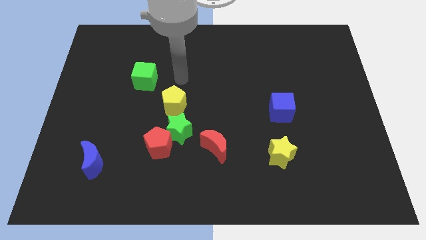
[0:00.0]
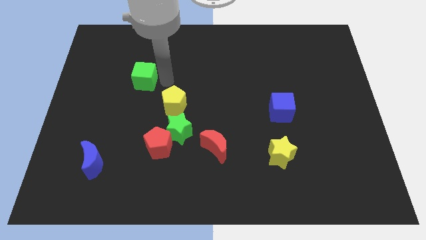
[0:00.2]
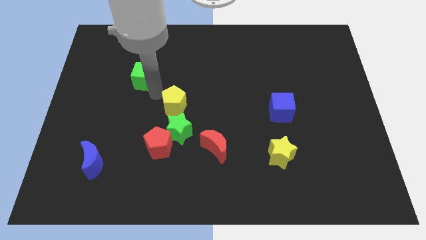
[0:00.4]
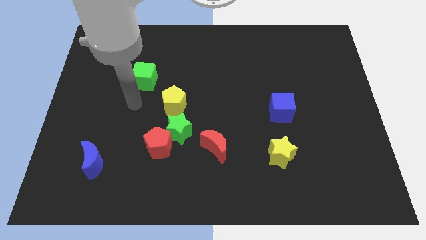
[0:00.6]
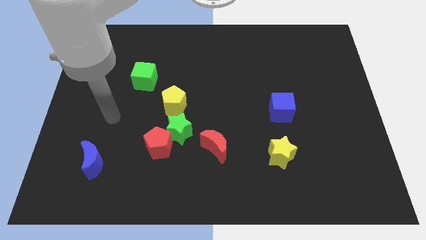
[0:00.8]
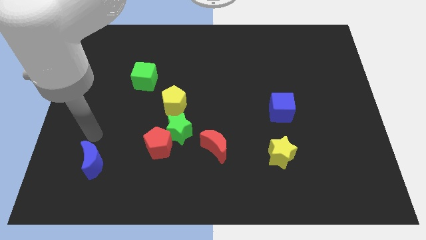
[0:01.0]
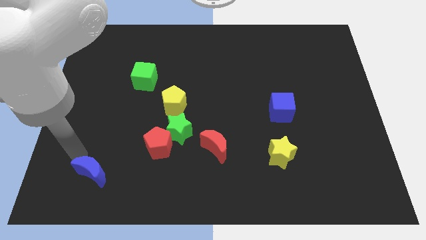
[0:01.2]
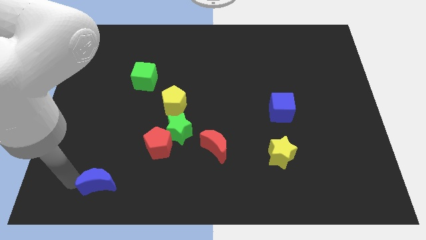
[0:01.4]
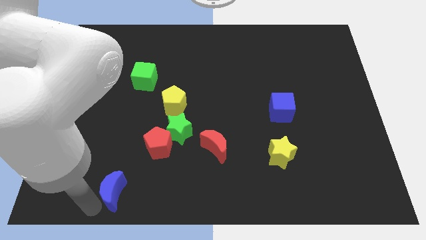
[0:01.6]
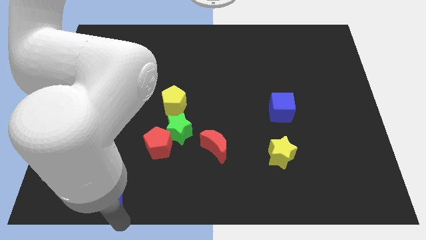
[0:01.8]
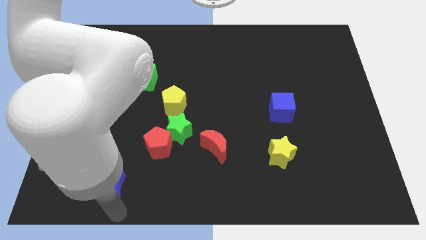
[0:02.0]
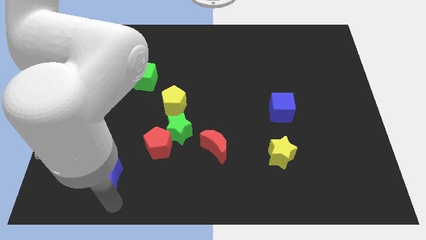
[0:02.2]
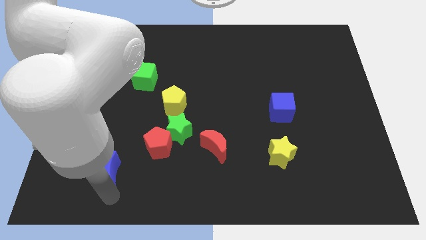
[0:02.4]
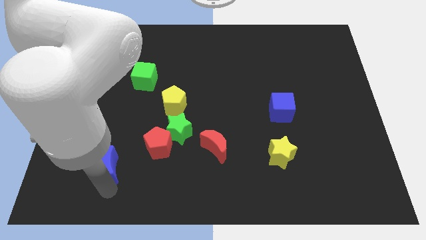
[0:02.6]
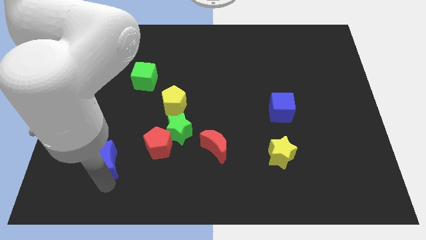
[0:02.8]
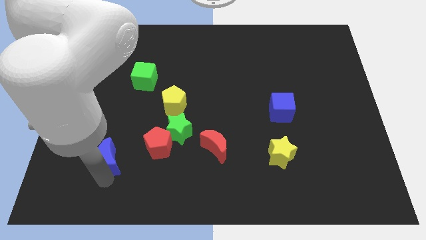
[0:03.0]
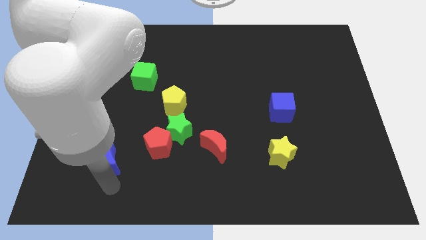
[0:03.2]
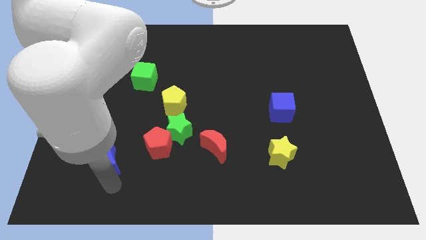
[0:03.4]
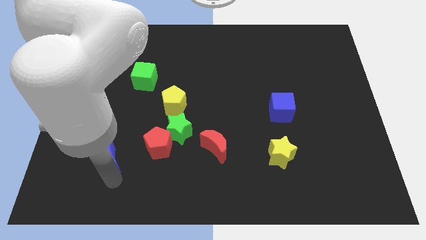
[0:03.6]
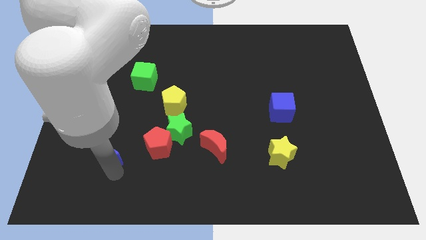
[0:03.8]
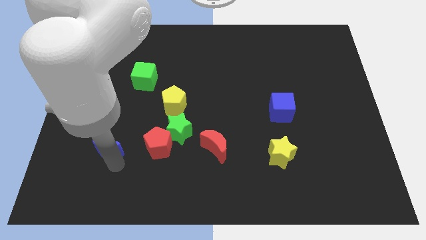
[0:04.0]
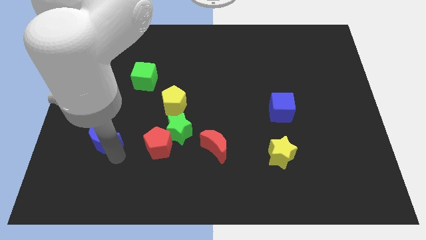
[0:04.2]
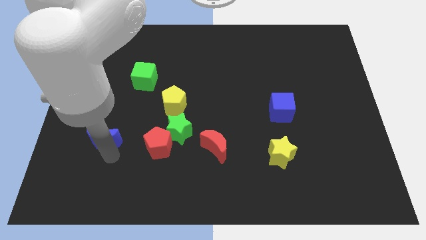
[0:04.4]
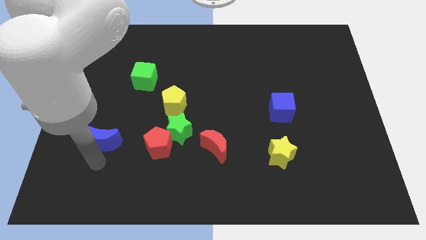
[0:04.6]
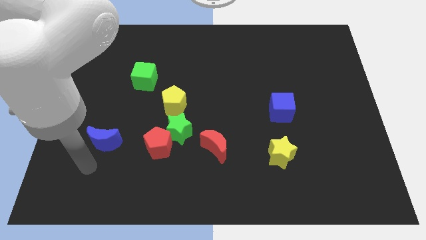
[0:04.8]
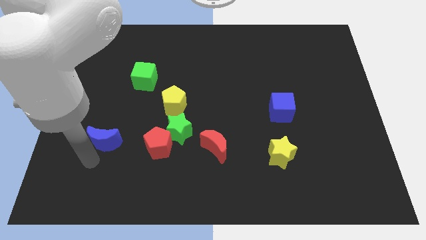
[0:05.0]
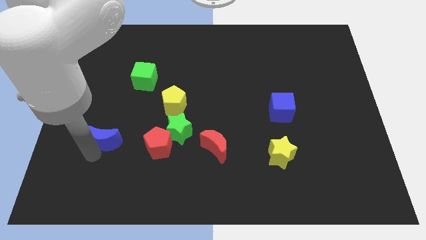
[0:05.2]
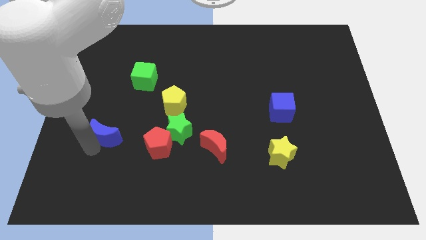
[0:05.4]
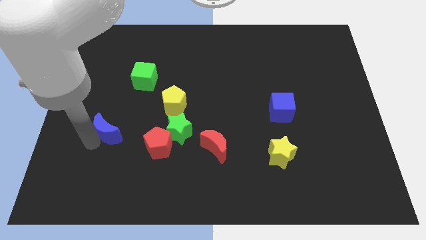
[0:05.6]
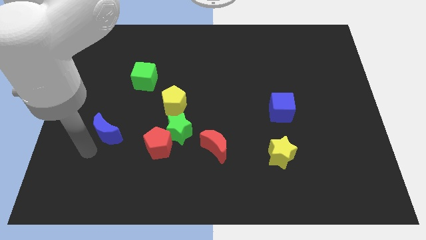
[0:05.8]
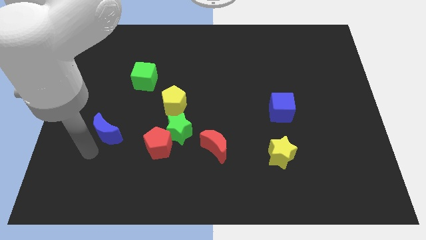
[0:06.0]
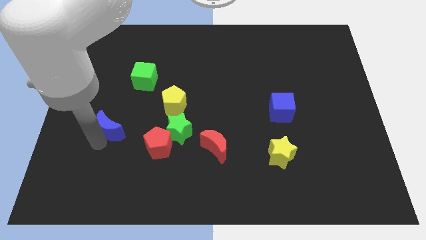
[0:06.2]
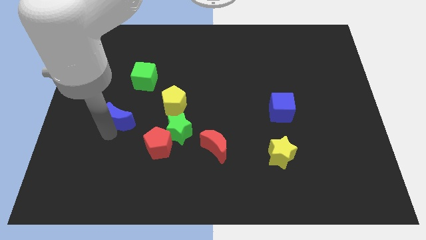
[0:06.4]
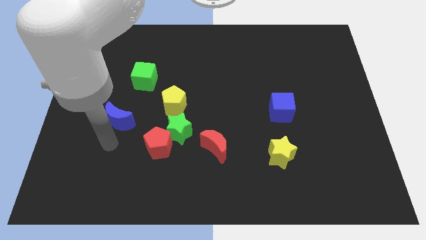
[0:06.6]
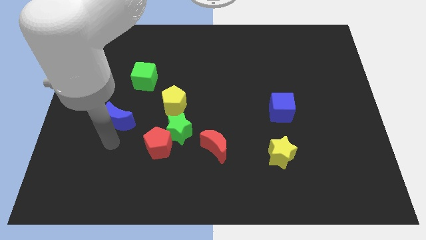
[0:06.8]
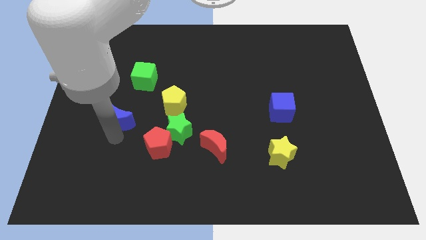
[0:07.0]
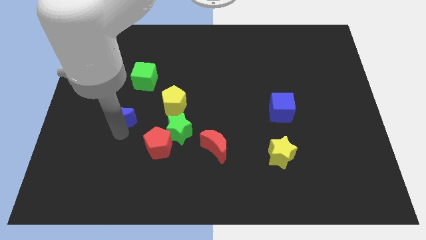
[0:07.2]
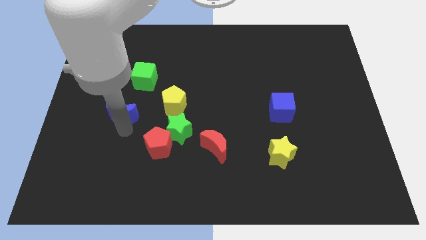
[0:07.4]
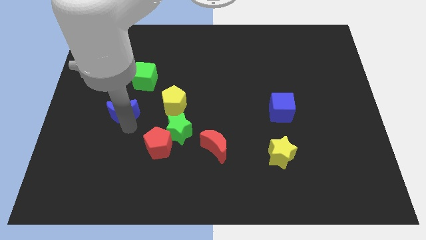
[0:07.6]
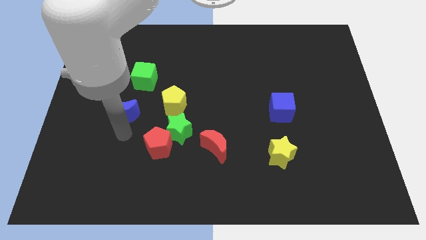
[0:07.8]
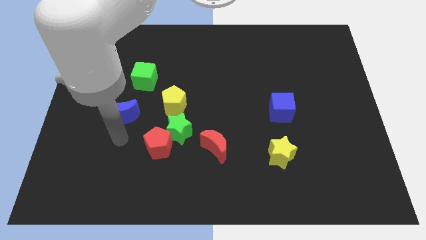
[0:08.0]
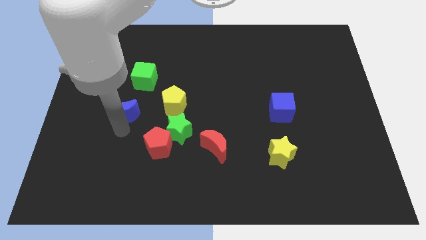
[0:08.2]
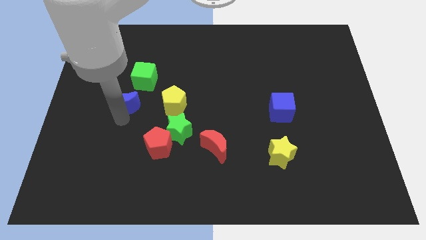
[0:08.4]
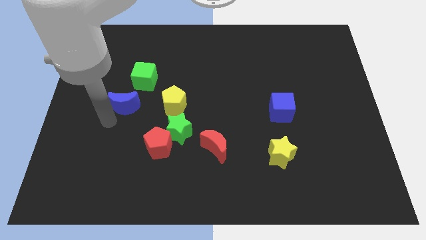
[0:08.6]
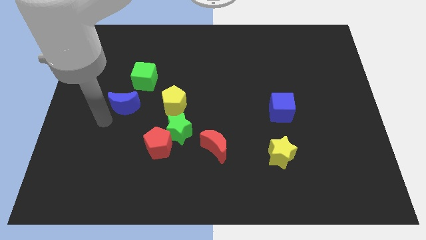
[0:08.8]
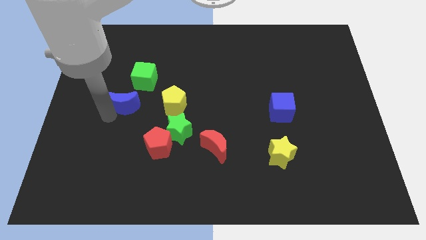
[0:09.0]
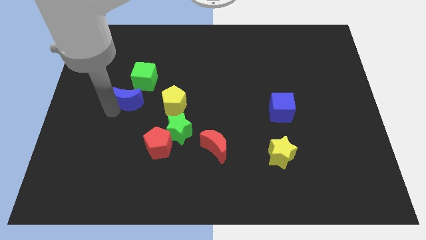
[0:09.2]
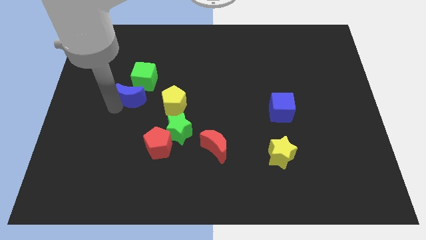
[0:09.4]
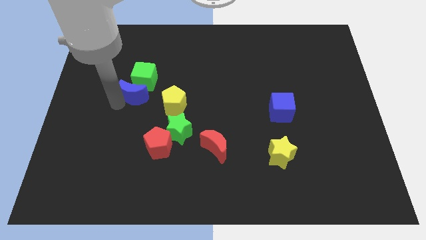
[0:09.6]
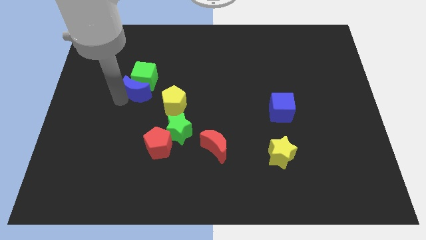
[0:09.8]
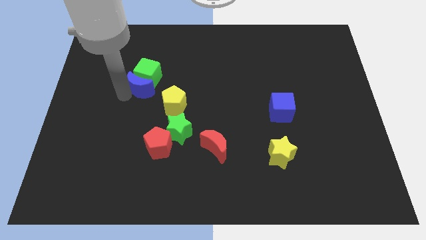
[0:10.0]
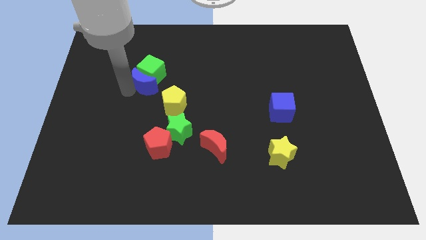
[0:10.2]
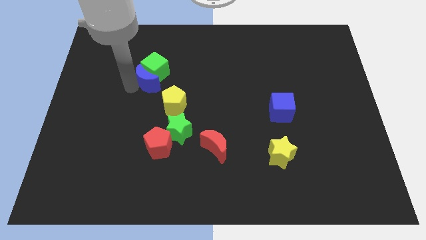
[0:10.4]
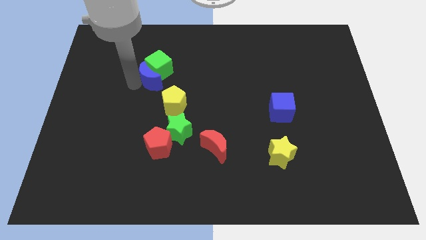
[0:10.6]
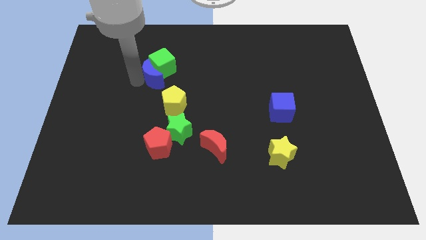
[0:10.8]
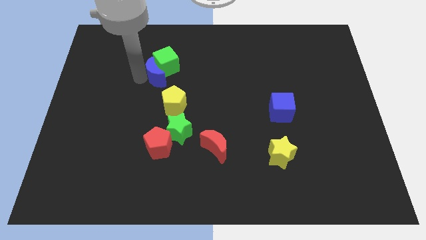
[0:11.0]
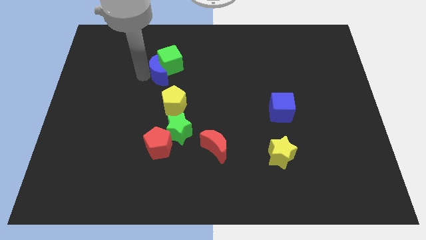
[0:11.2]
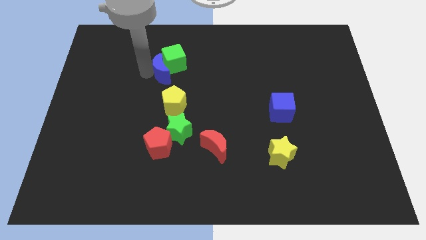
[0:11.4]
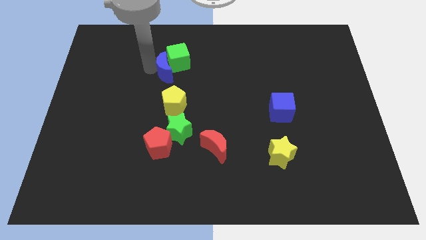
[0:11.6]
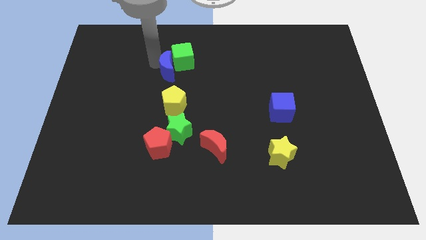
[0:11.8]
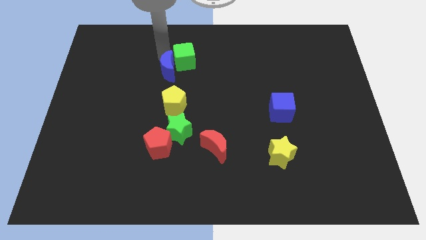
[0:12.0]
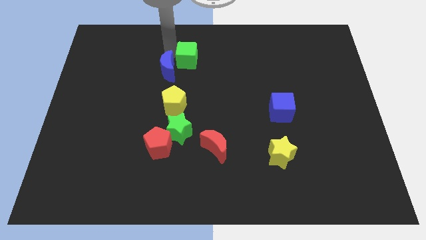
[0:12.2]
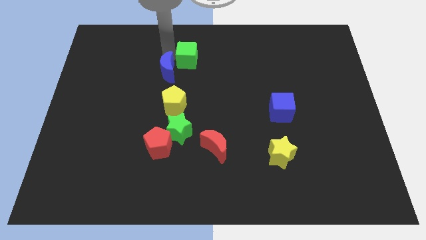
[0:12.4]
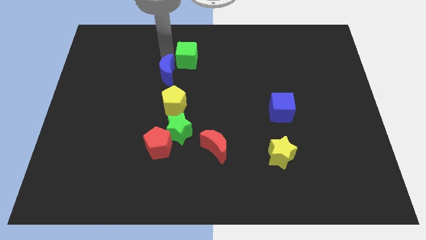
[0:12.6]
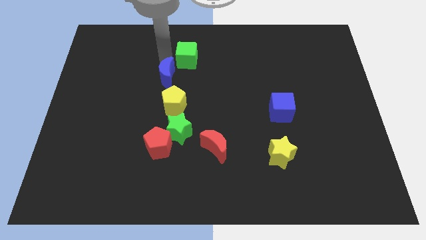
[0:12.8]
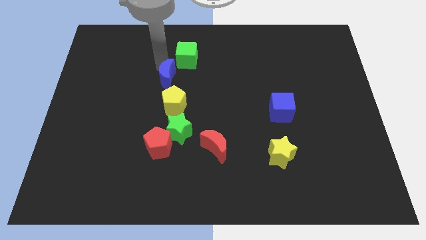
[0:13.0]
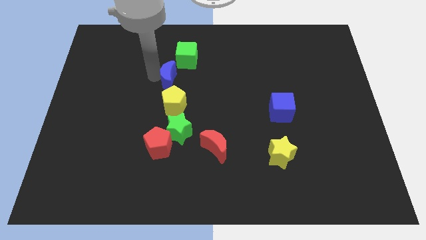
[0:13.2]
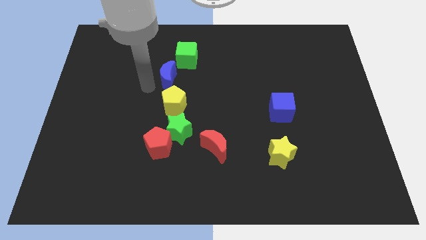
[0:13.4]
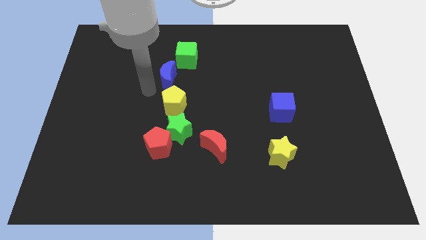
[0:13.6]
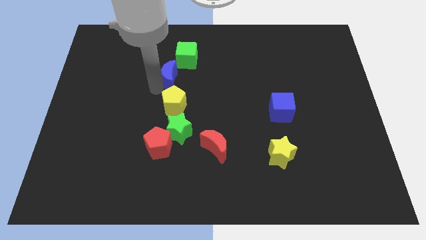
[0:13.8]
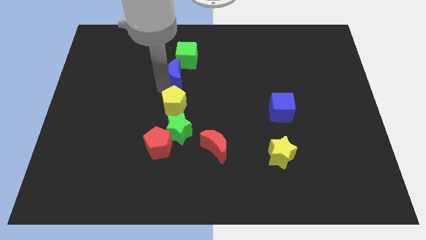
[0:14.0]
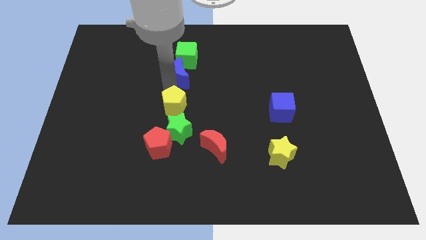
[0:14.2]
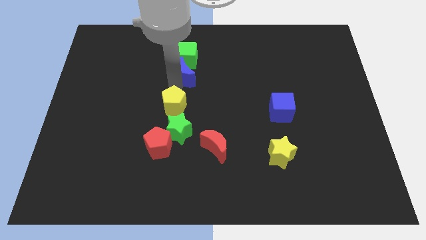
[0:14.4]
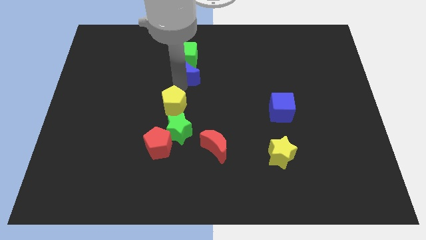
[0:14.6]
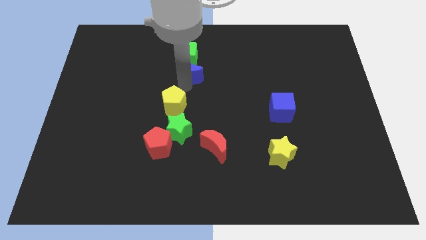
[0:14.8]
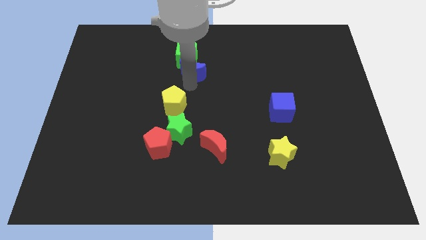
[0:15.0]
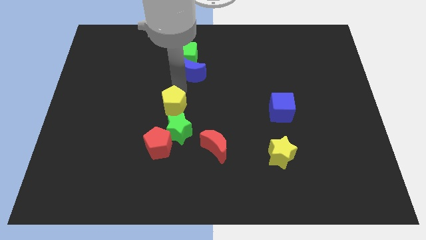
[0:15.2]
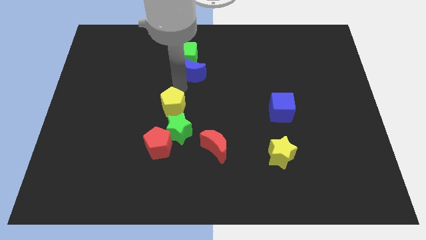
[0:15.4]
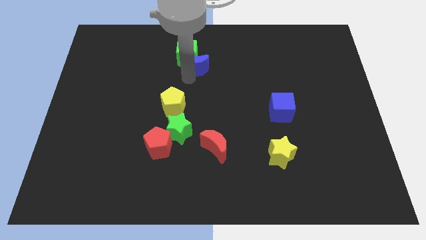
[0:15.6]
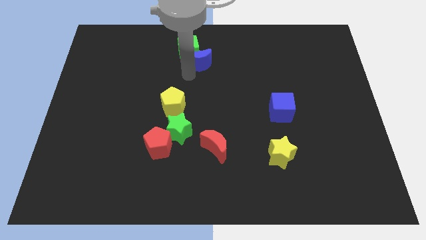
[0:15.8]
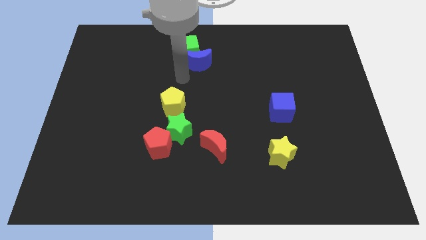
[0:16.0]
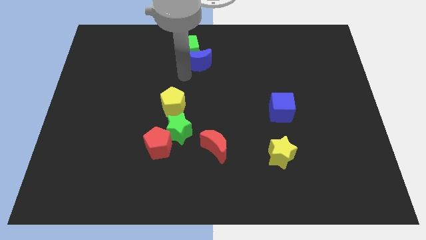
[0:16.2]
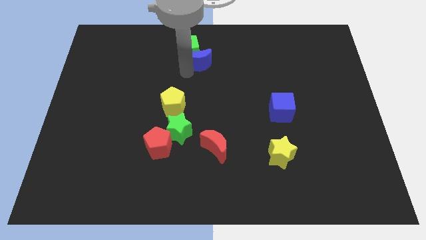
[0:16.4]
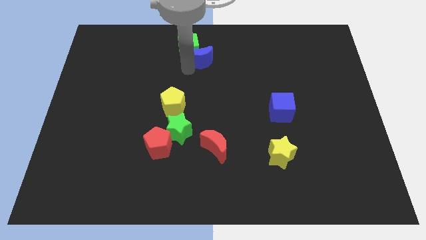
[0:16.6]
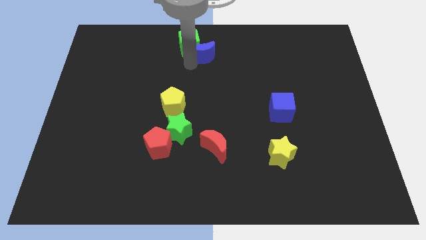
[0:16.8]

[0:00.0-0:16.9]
slide the blue moon to the towards your base
